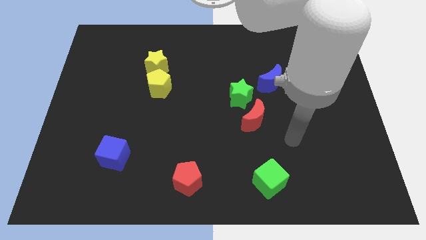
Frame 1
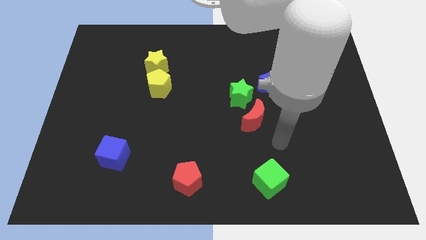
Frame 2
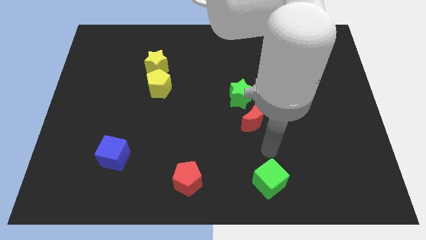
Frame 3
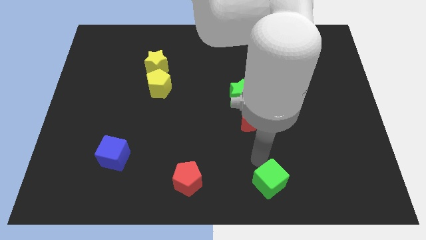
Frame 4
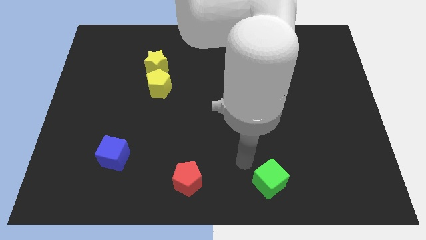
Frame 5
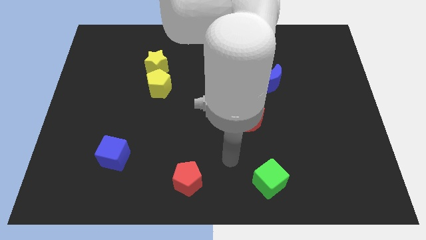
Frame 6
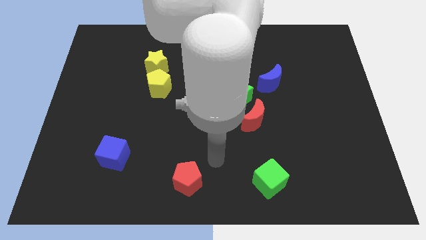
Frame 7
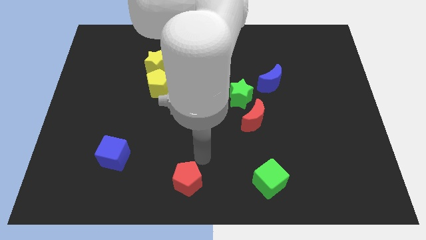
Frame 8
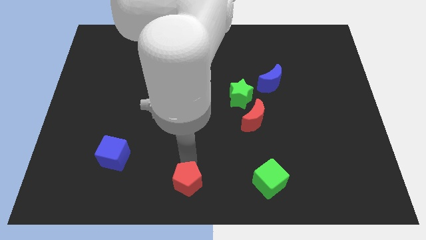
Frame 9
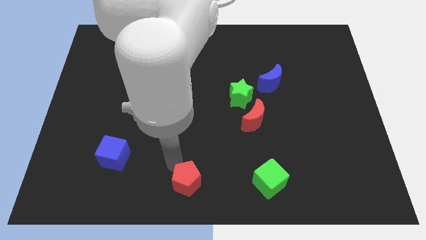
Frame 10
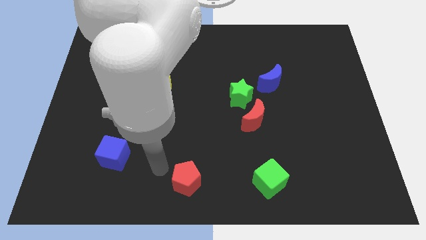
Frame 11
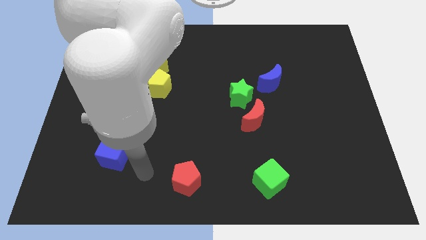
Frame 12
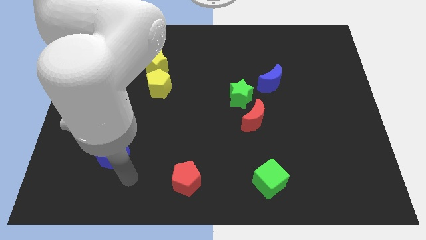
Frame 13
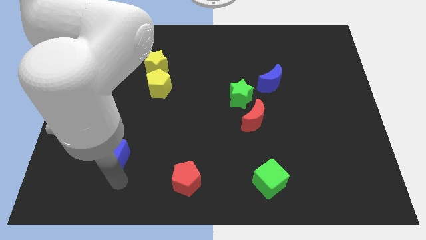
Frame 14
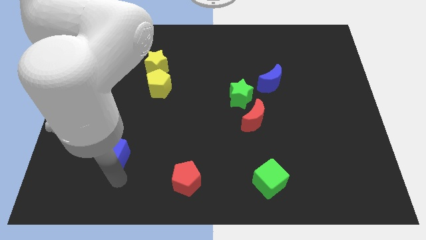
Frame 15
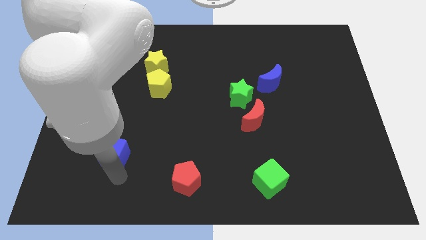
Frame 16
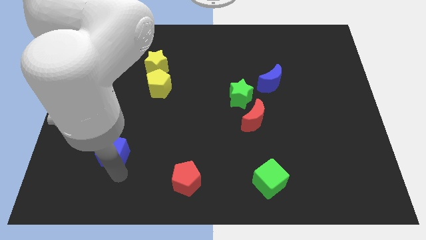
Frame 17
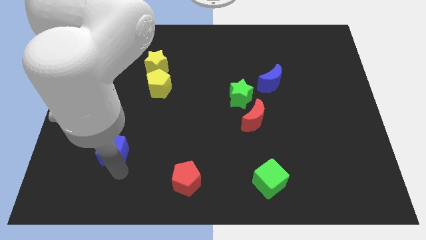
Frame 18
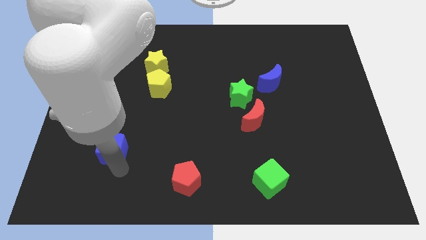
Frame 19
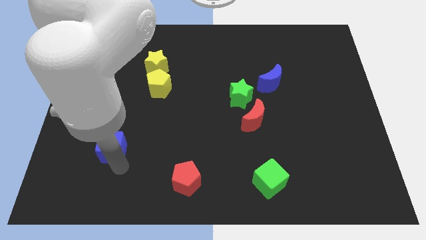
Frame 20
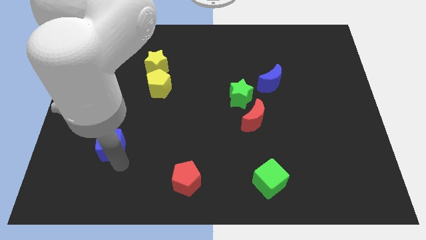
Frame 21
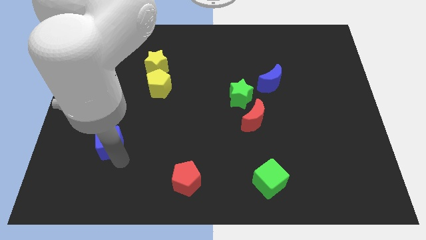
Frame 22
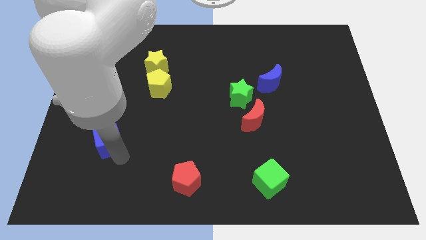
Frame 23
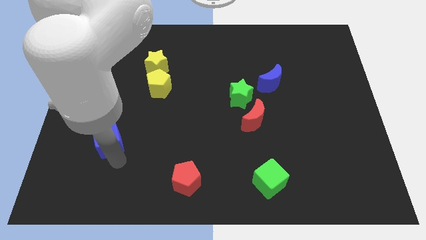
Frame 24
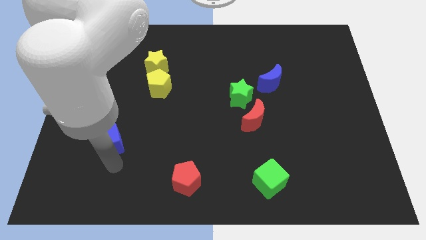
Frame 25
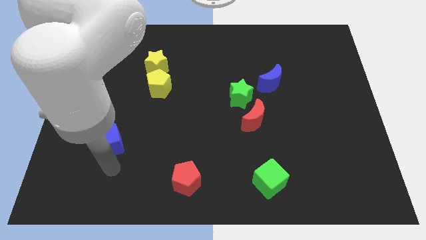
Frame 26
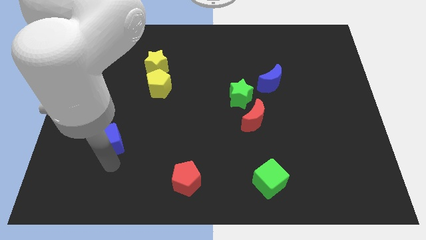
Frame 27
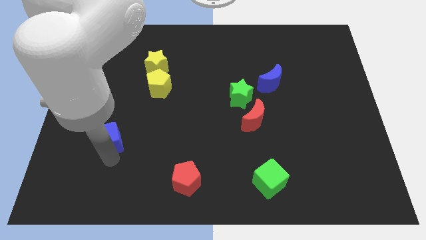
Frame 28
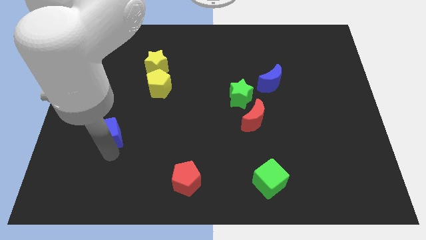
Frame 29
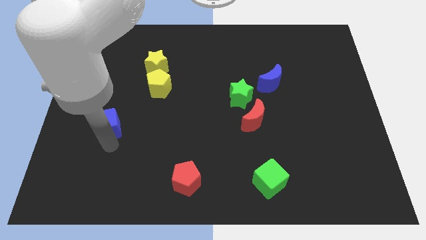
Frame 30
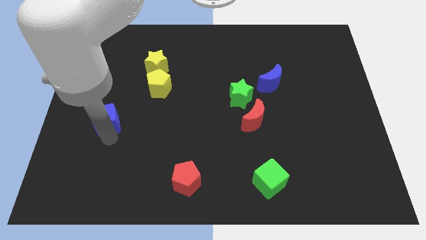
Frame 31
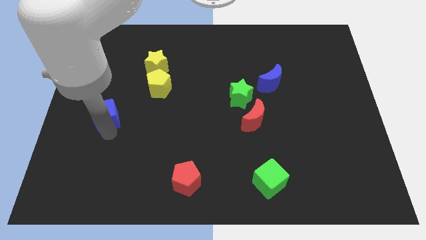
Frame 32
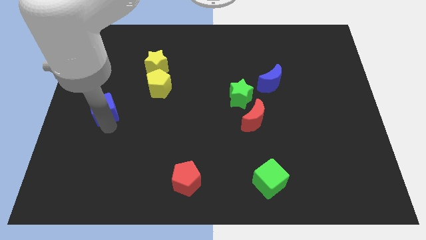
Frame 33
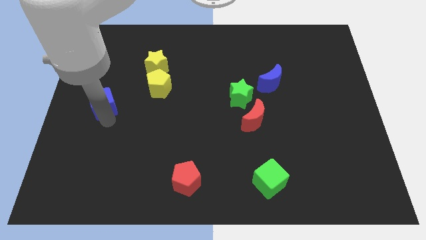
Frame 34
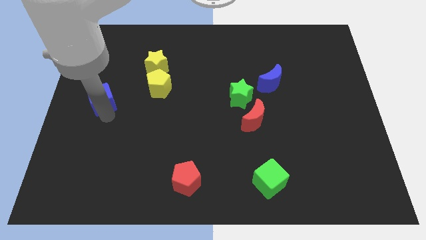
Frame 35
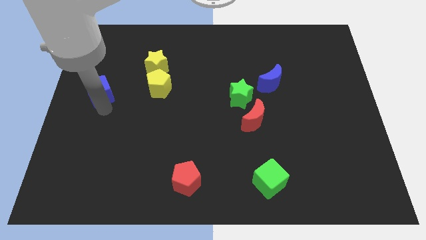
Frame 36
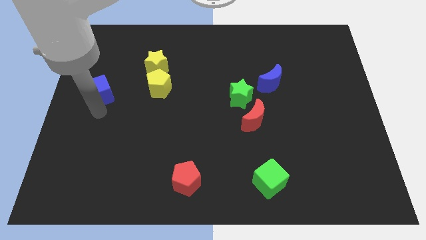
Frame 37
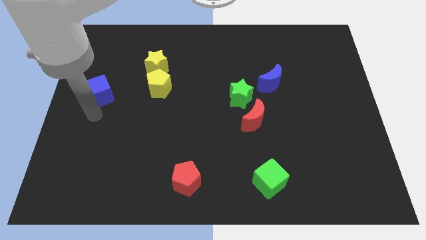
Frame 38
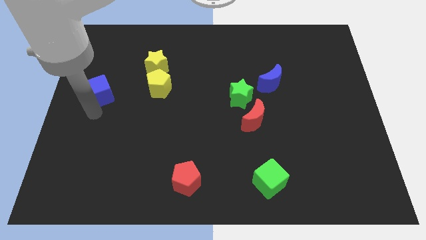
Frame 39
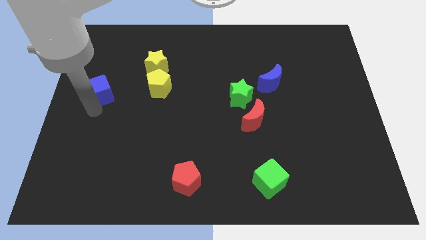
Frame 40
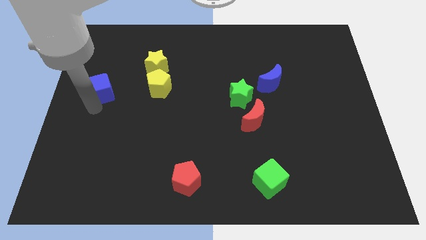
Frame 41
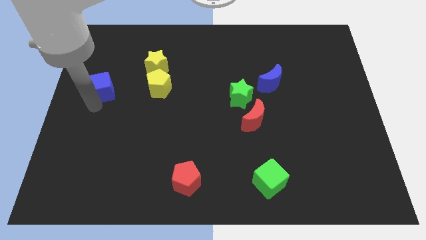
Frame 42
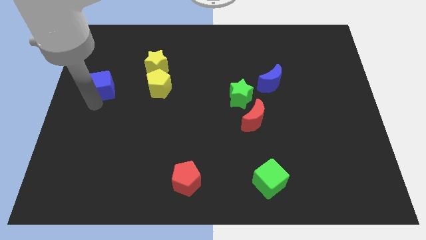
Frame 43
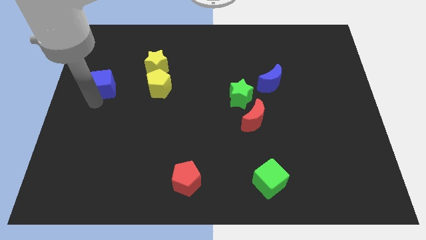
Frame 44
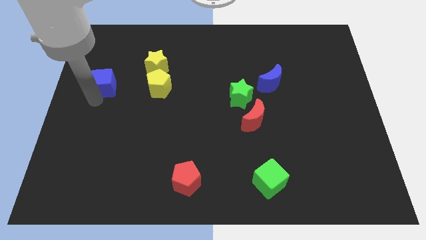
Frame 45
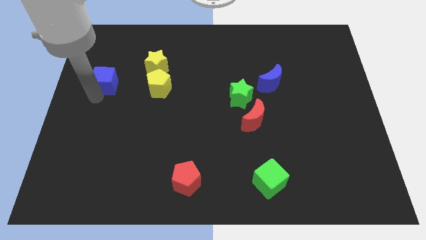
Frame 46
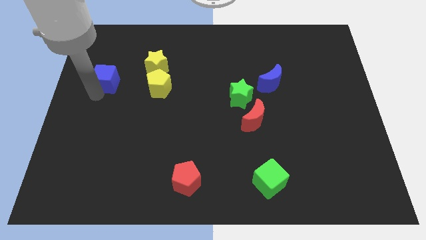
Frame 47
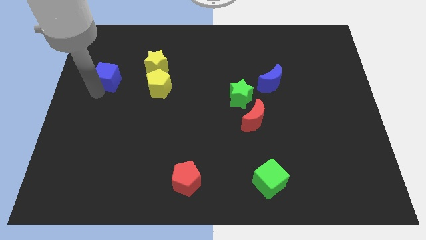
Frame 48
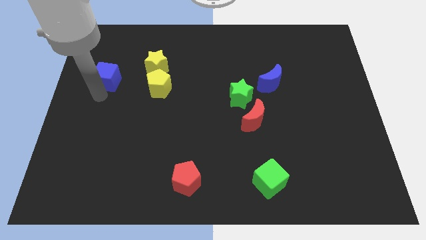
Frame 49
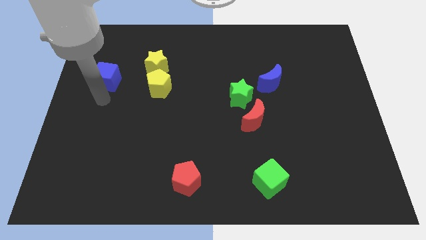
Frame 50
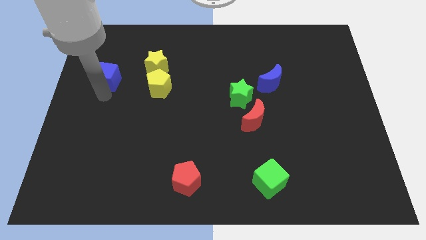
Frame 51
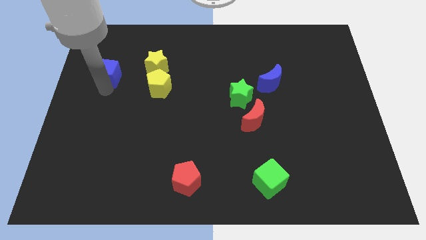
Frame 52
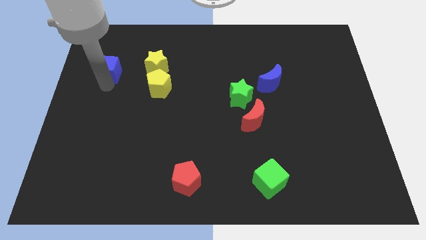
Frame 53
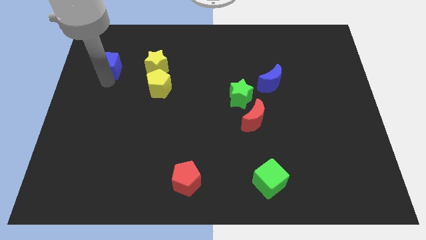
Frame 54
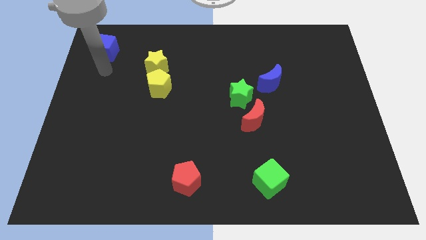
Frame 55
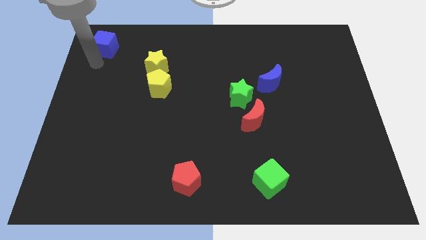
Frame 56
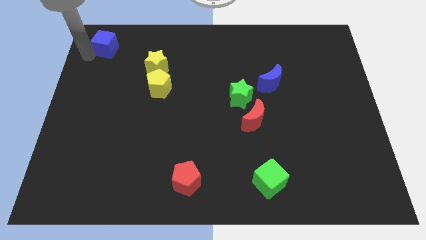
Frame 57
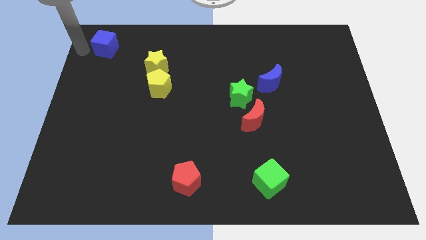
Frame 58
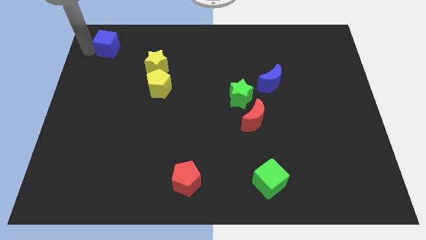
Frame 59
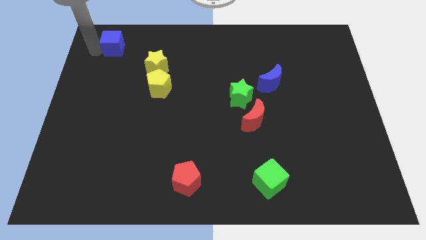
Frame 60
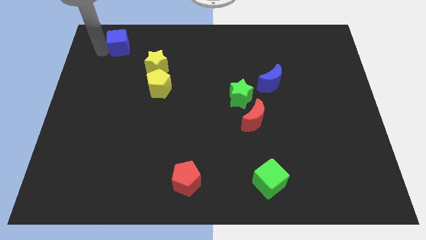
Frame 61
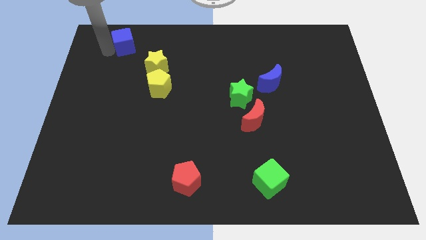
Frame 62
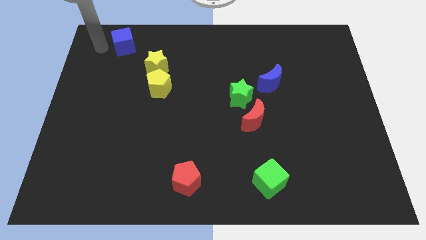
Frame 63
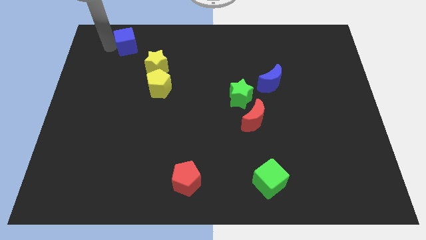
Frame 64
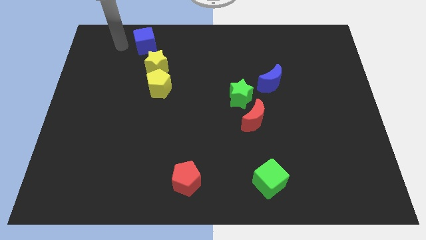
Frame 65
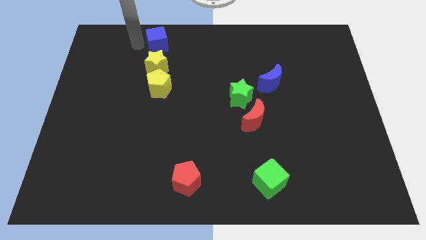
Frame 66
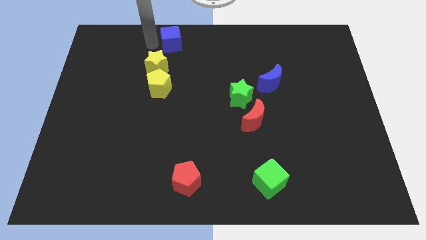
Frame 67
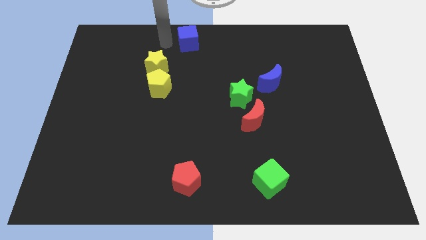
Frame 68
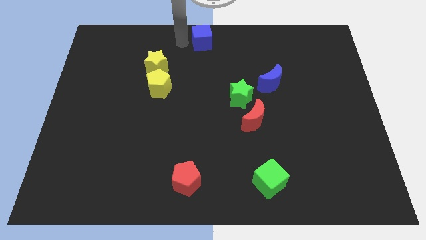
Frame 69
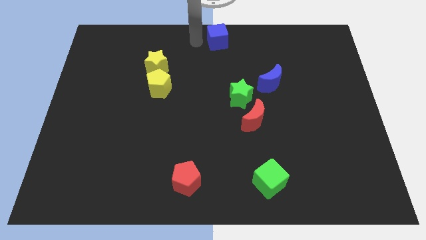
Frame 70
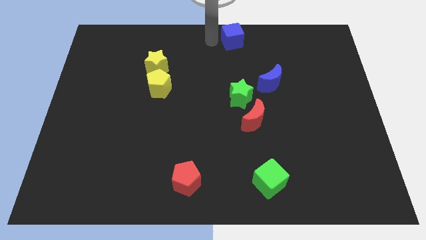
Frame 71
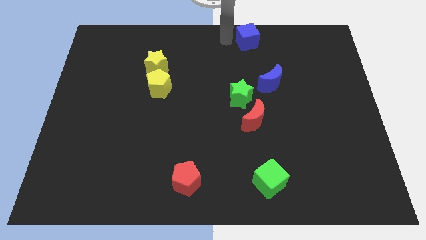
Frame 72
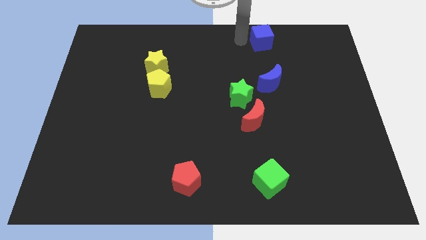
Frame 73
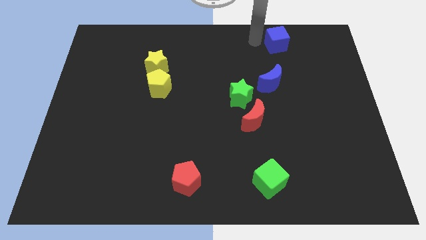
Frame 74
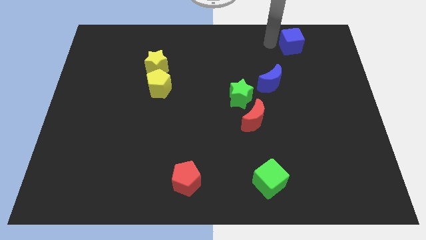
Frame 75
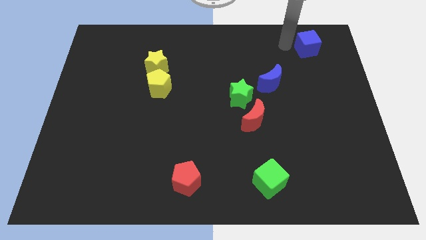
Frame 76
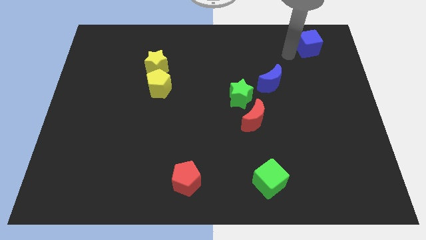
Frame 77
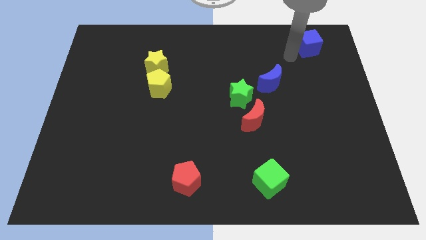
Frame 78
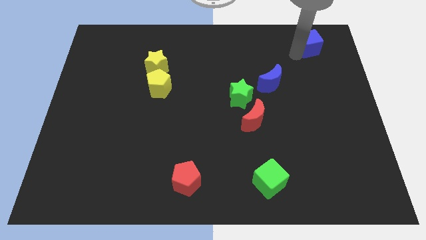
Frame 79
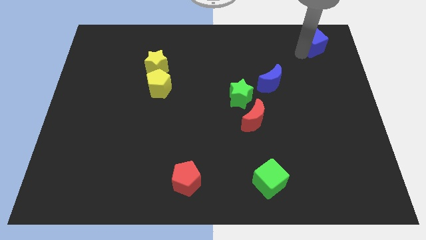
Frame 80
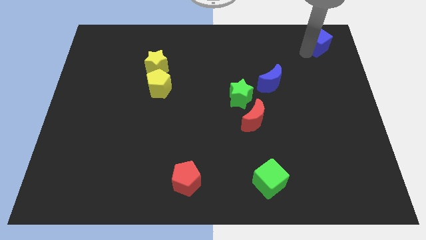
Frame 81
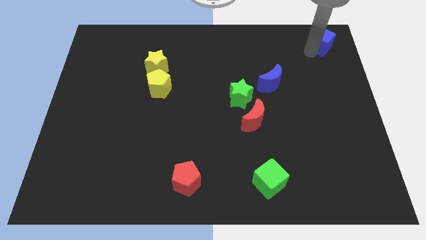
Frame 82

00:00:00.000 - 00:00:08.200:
move the blue cube to the top right corner

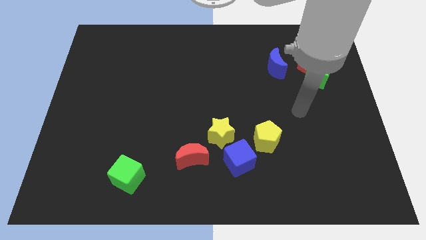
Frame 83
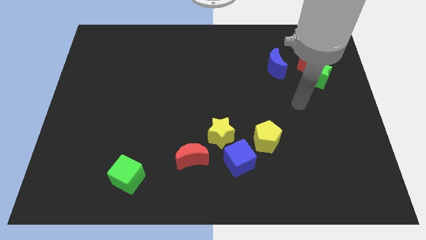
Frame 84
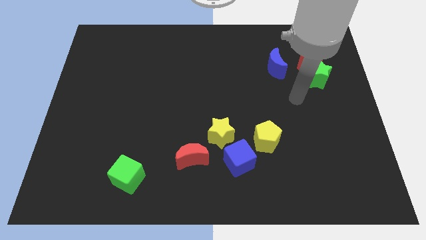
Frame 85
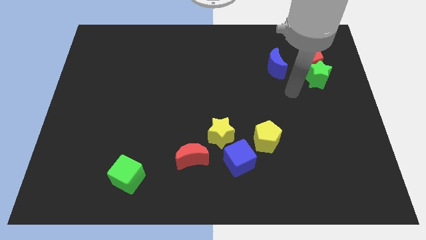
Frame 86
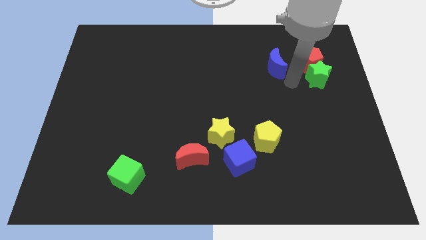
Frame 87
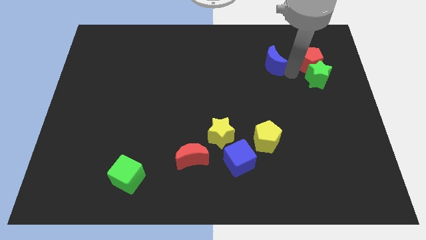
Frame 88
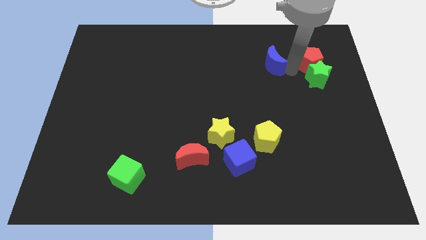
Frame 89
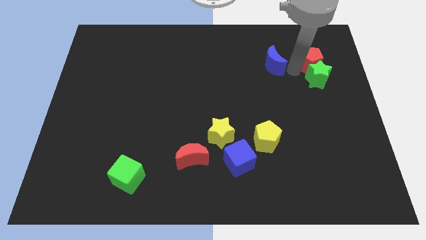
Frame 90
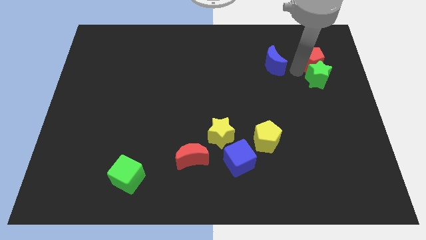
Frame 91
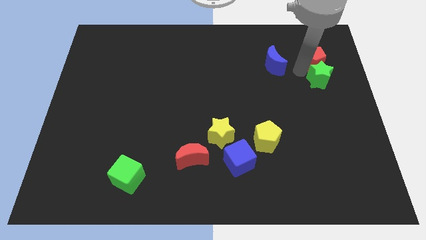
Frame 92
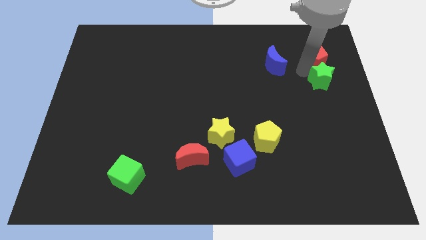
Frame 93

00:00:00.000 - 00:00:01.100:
slide the green star to the right side
